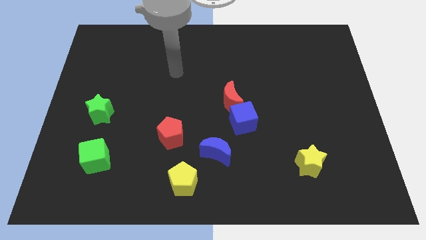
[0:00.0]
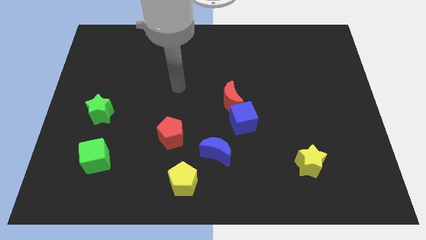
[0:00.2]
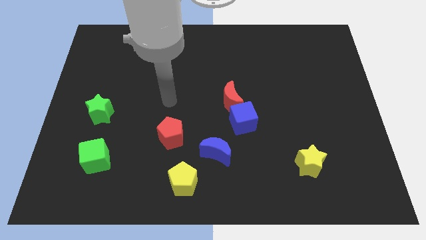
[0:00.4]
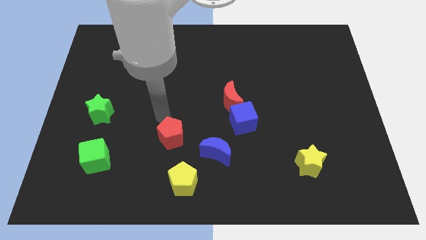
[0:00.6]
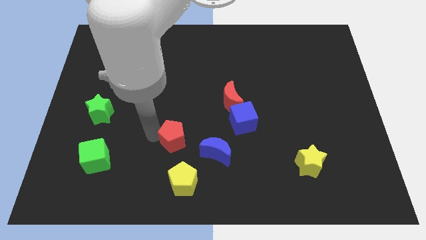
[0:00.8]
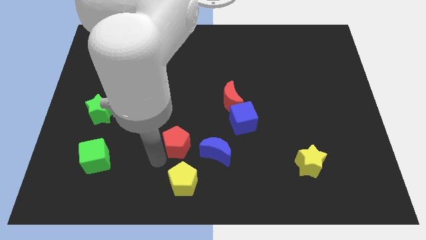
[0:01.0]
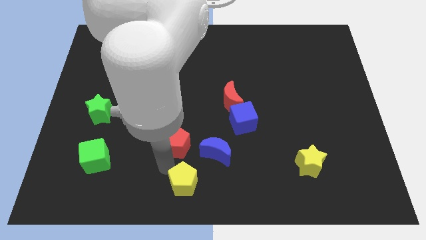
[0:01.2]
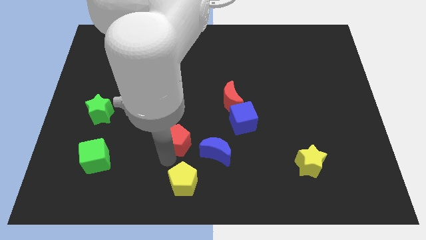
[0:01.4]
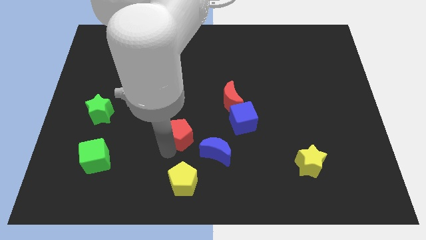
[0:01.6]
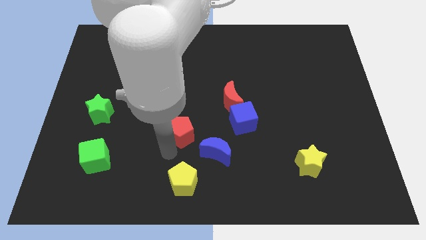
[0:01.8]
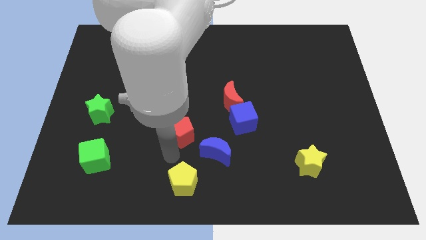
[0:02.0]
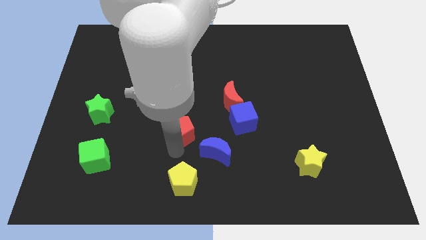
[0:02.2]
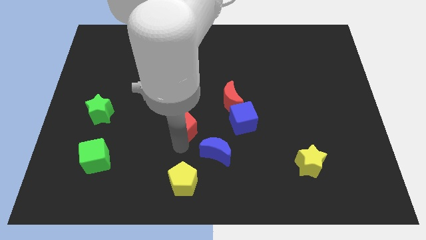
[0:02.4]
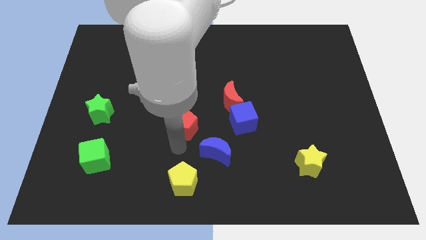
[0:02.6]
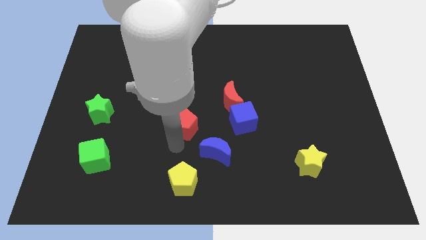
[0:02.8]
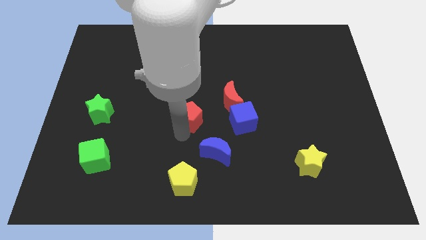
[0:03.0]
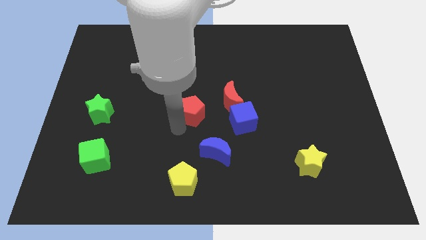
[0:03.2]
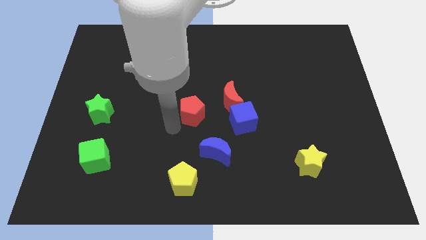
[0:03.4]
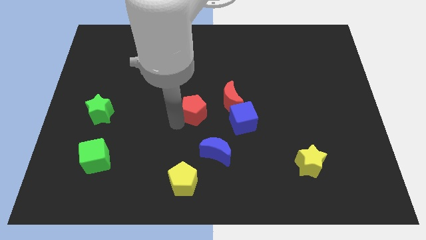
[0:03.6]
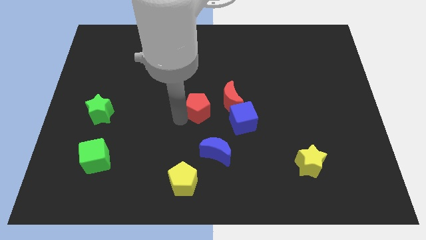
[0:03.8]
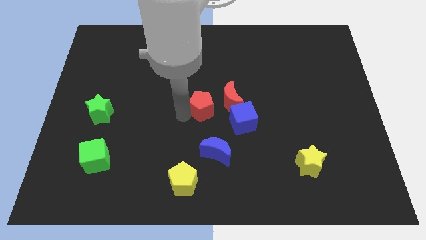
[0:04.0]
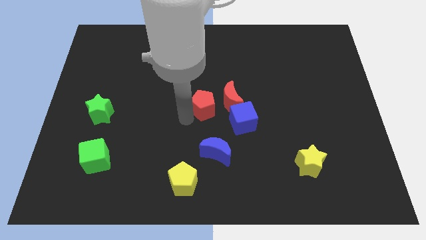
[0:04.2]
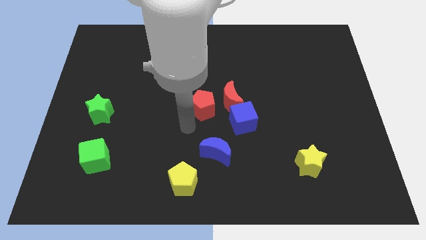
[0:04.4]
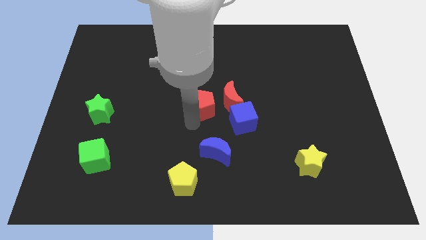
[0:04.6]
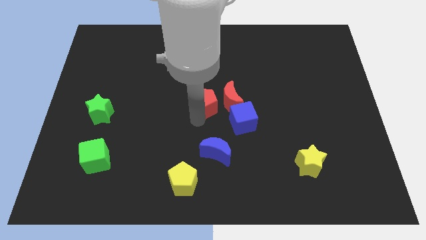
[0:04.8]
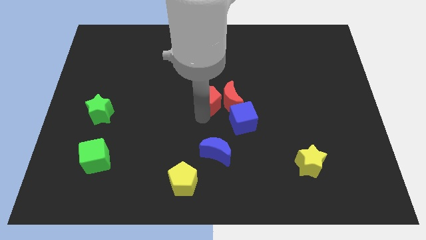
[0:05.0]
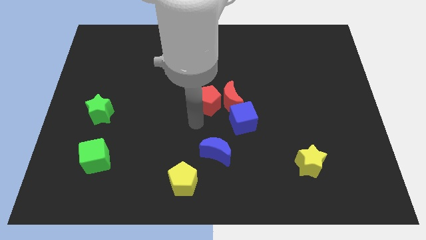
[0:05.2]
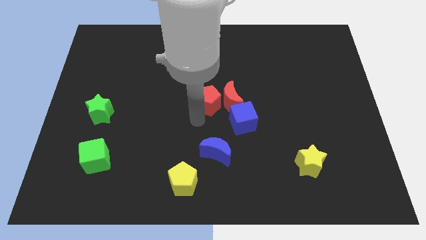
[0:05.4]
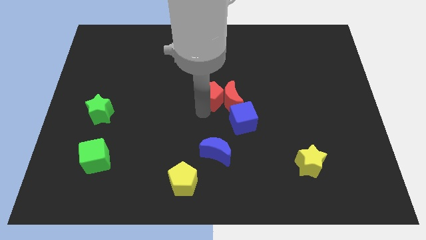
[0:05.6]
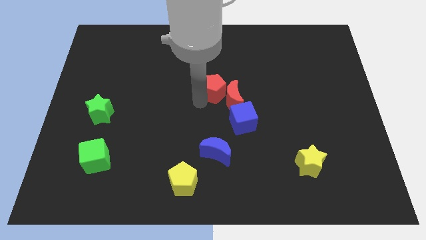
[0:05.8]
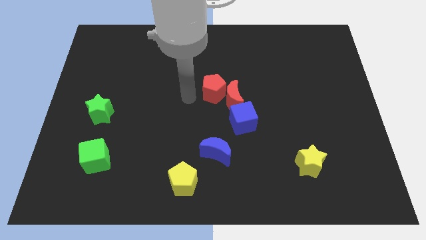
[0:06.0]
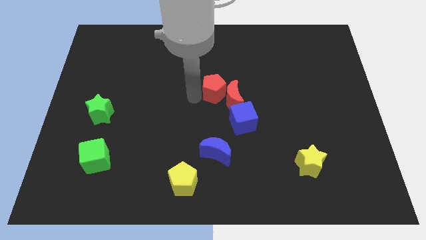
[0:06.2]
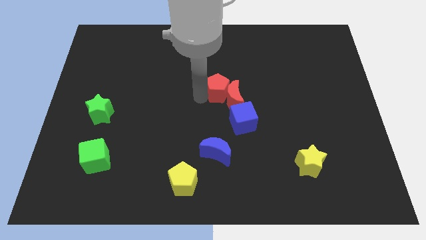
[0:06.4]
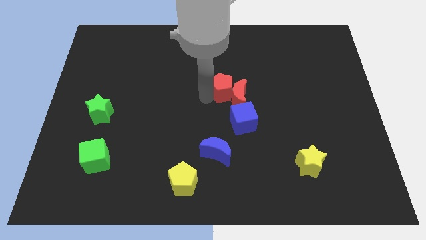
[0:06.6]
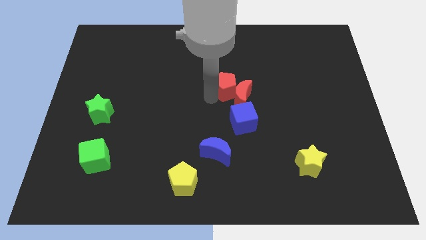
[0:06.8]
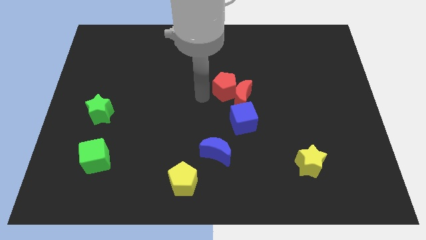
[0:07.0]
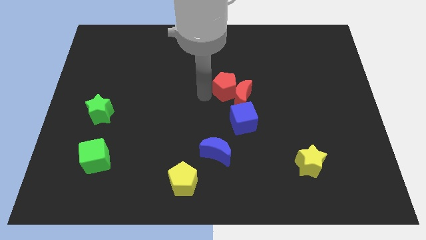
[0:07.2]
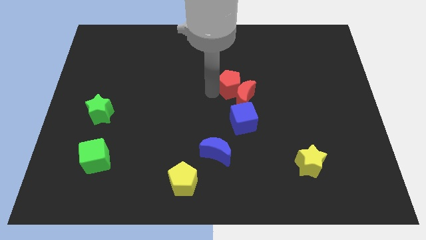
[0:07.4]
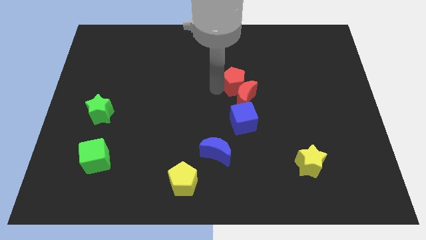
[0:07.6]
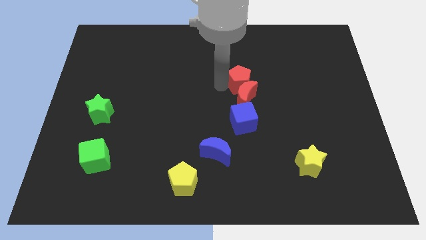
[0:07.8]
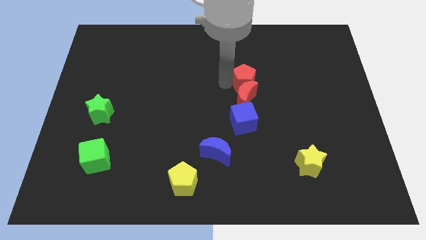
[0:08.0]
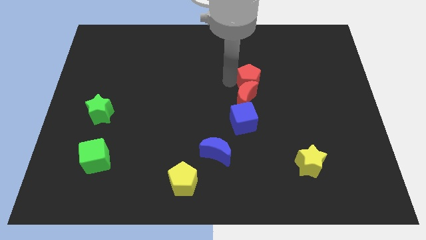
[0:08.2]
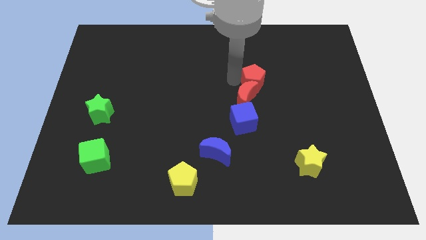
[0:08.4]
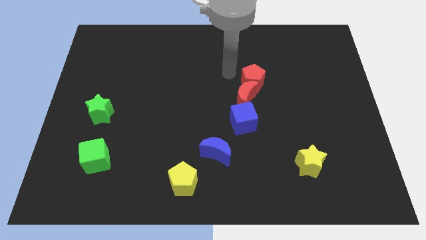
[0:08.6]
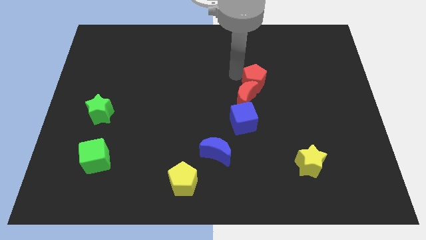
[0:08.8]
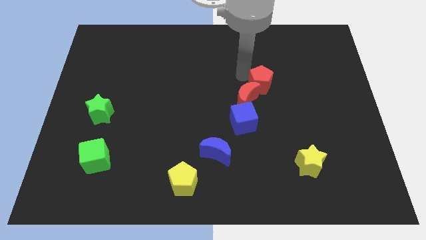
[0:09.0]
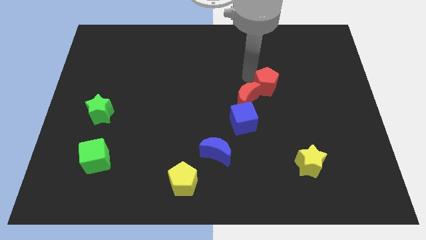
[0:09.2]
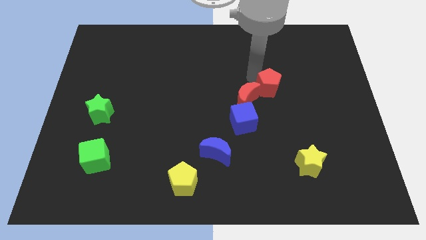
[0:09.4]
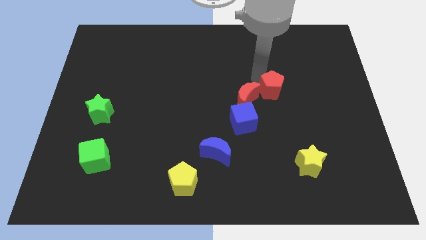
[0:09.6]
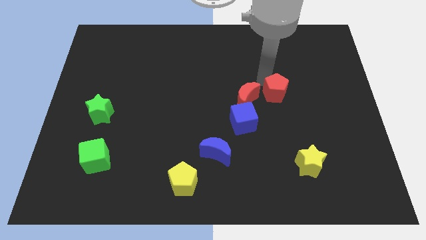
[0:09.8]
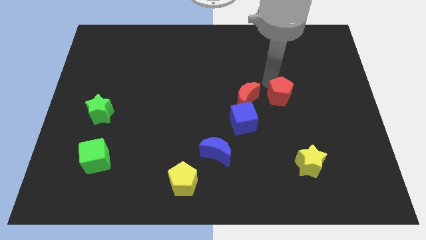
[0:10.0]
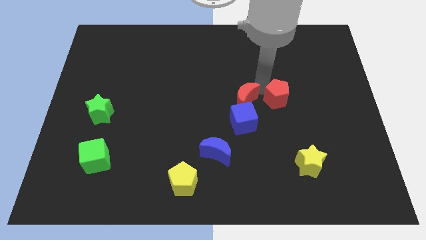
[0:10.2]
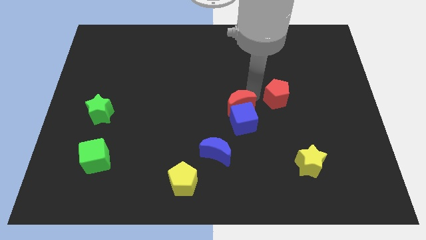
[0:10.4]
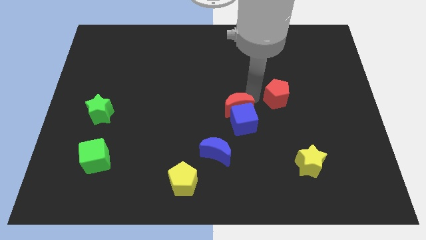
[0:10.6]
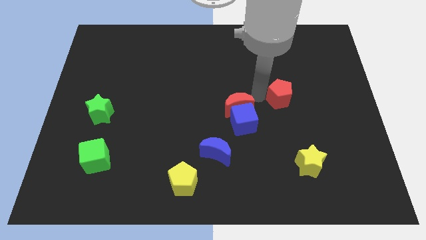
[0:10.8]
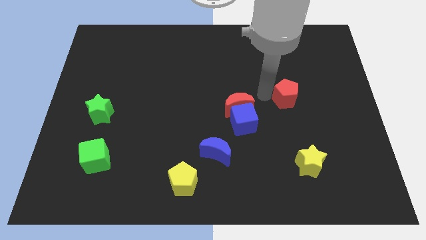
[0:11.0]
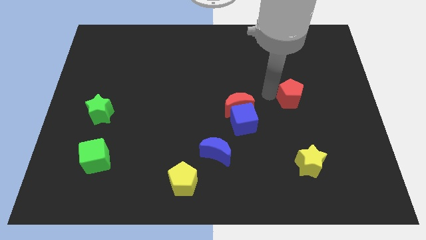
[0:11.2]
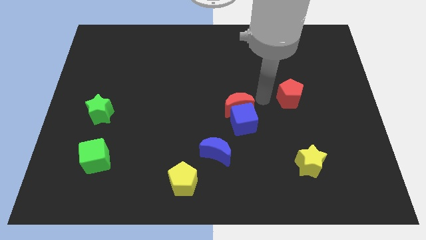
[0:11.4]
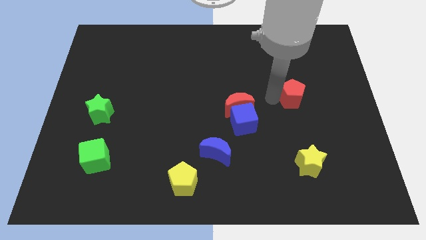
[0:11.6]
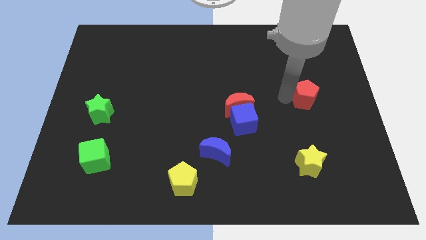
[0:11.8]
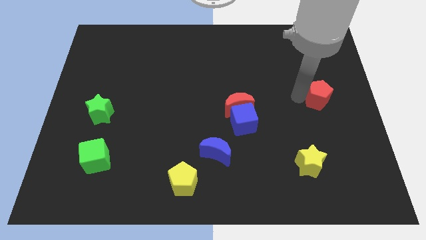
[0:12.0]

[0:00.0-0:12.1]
slide the red pentagon to the right side of the board
